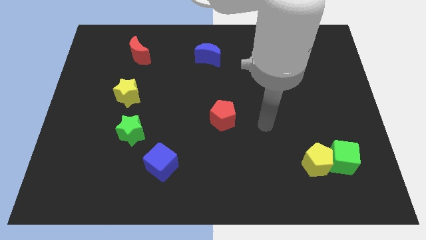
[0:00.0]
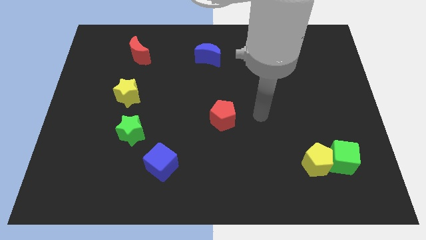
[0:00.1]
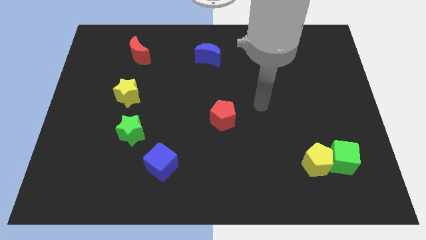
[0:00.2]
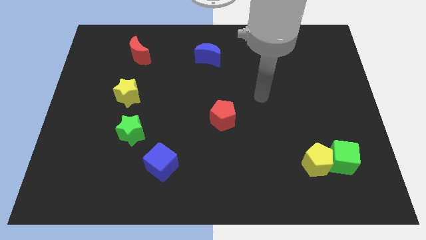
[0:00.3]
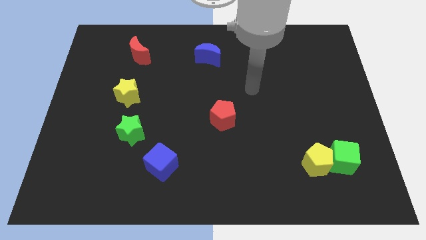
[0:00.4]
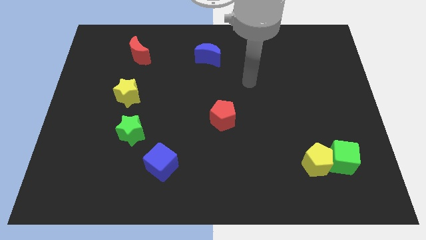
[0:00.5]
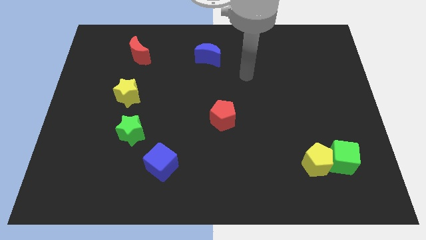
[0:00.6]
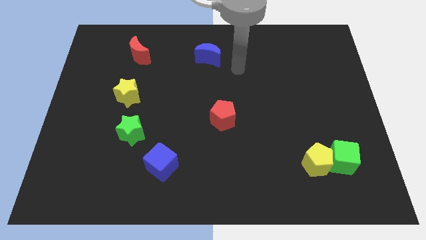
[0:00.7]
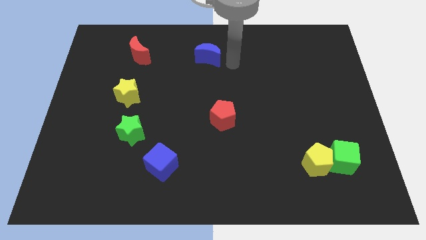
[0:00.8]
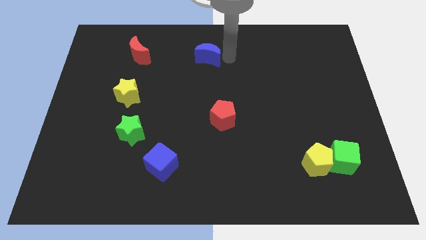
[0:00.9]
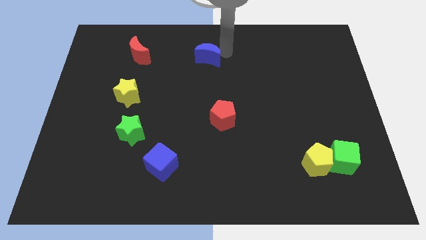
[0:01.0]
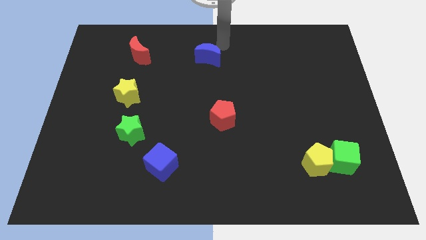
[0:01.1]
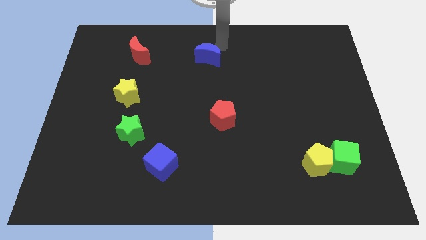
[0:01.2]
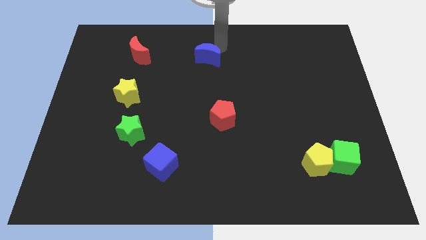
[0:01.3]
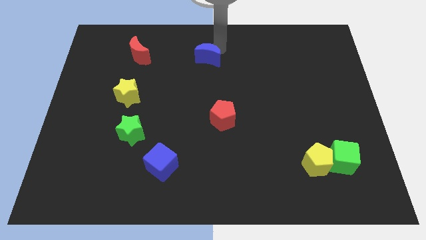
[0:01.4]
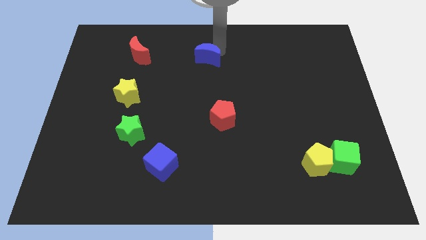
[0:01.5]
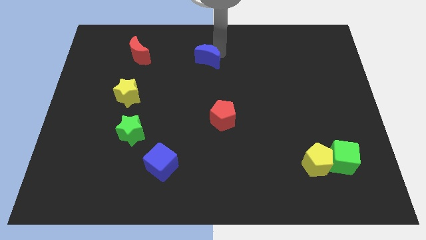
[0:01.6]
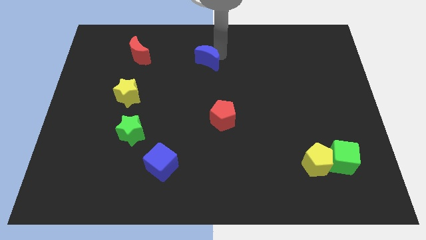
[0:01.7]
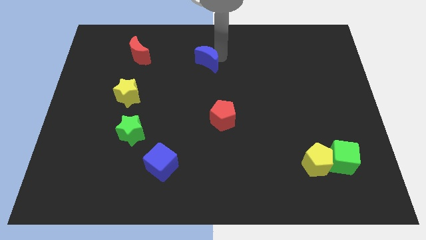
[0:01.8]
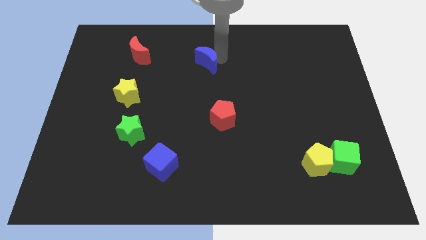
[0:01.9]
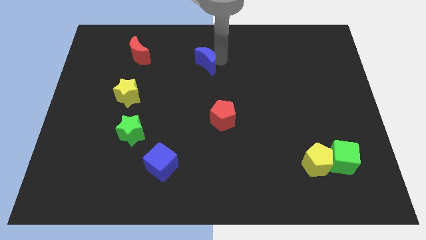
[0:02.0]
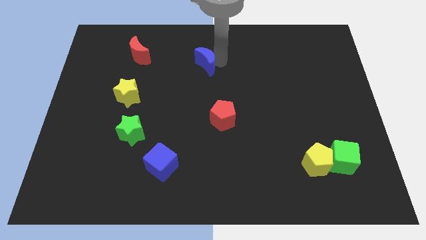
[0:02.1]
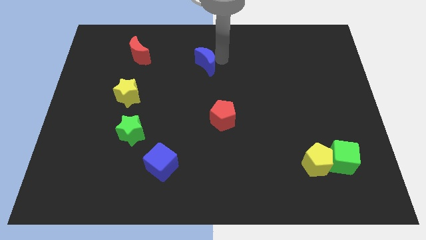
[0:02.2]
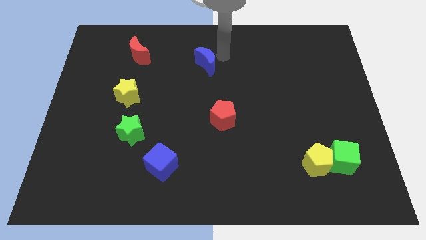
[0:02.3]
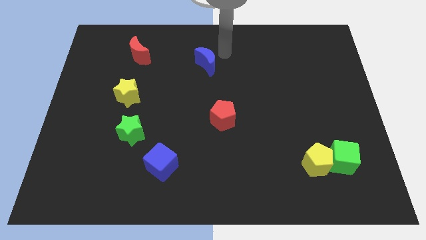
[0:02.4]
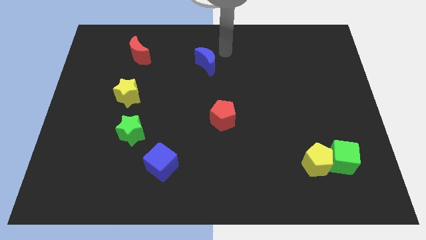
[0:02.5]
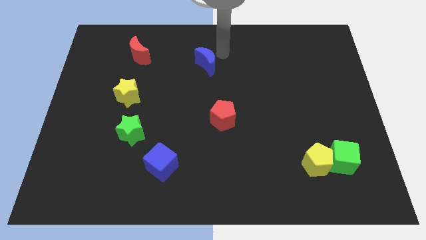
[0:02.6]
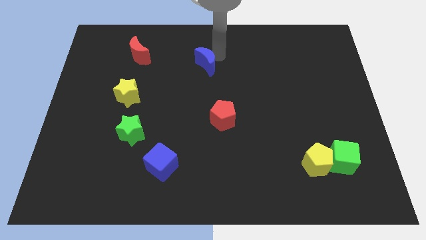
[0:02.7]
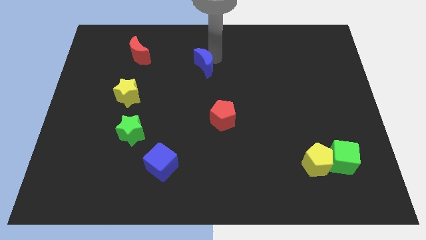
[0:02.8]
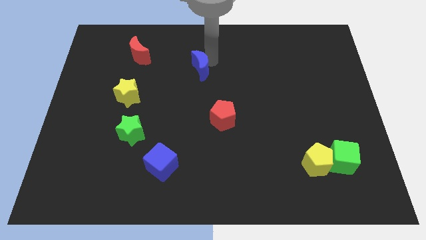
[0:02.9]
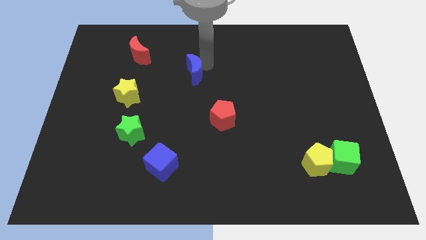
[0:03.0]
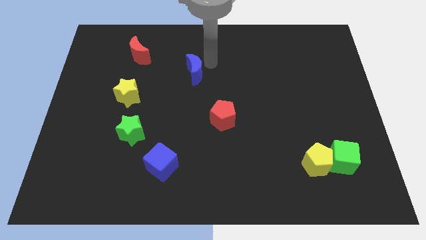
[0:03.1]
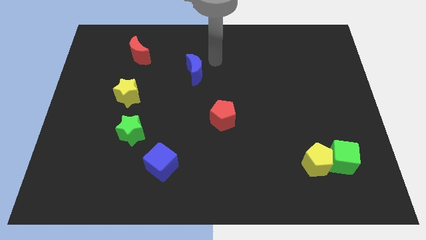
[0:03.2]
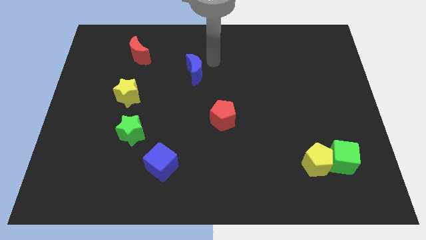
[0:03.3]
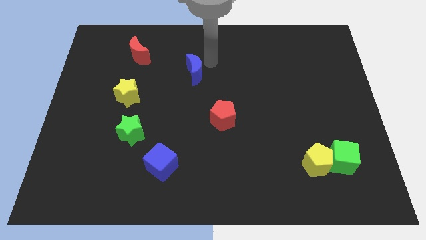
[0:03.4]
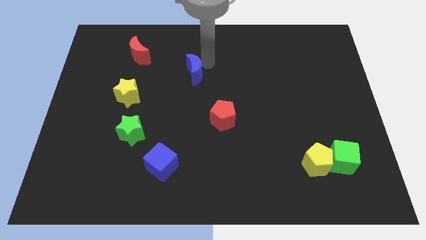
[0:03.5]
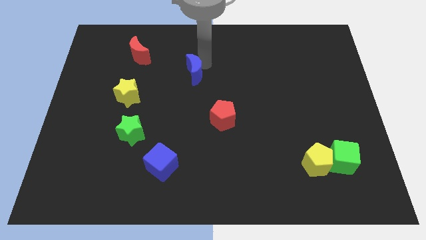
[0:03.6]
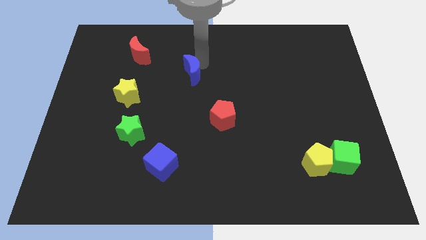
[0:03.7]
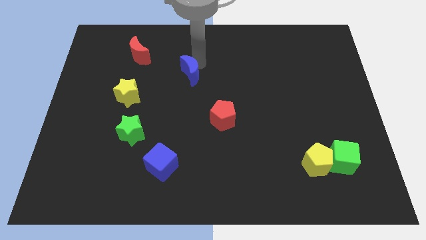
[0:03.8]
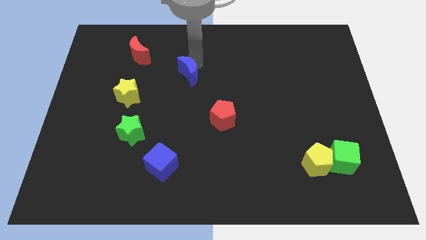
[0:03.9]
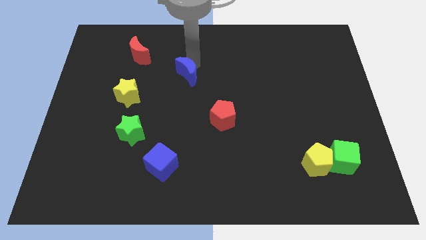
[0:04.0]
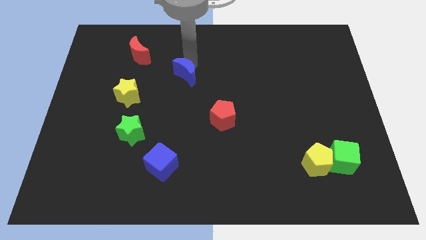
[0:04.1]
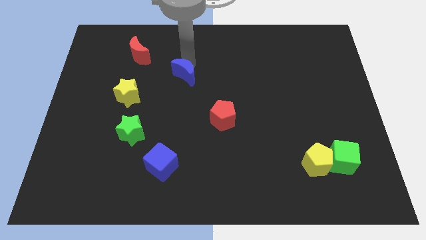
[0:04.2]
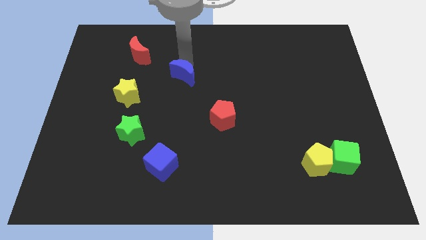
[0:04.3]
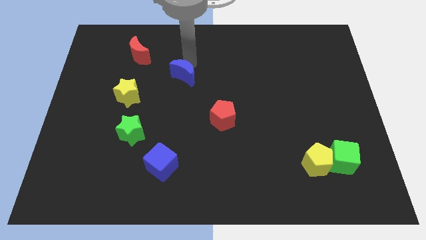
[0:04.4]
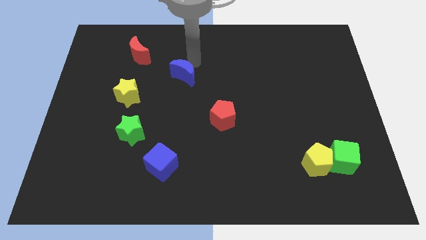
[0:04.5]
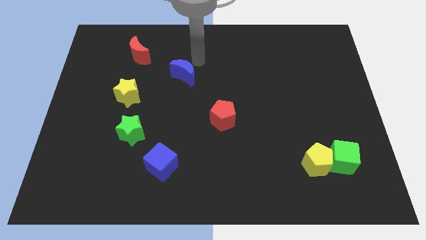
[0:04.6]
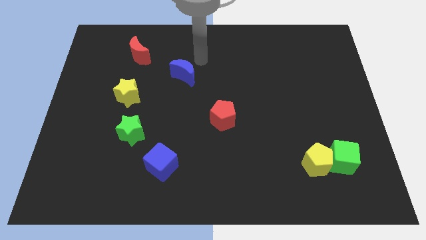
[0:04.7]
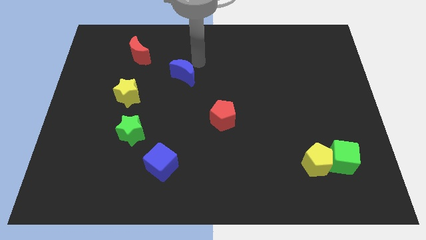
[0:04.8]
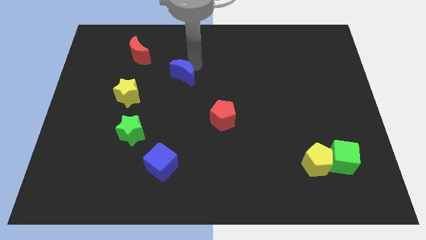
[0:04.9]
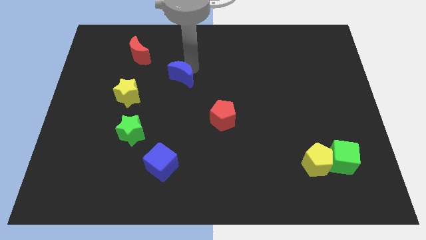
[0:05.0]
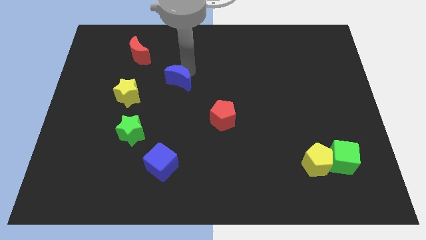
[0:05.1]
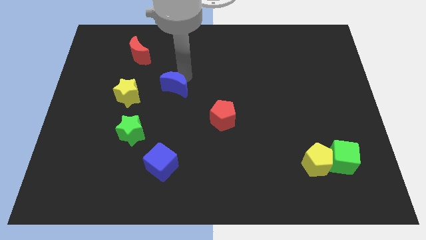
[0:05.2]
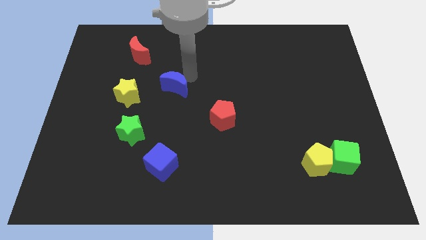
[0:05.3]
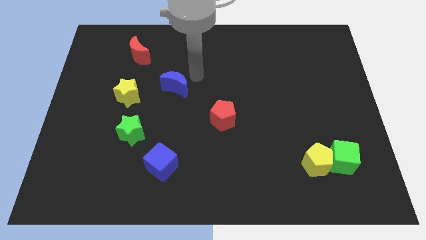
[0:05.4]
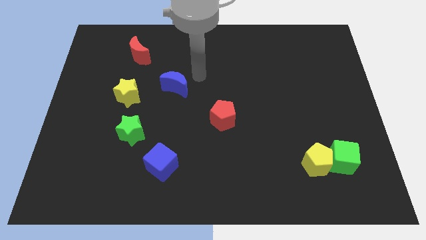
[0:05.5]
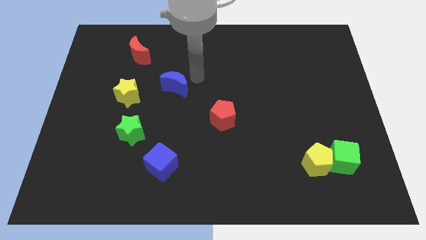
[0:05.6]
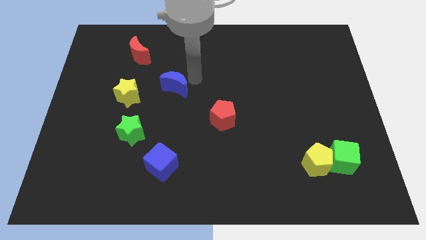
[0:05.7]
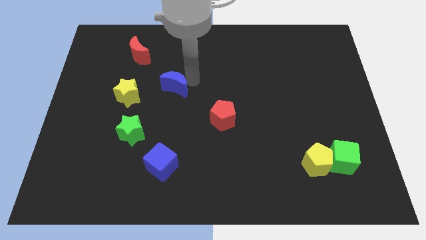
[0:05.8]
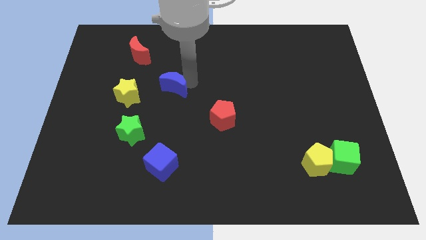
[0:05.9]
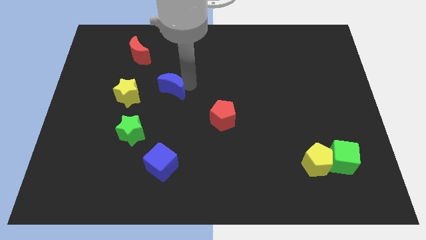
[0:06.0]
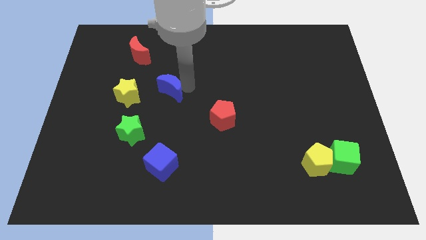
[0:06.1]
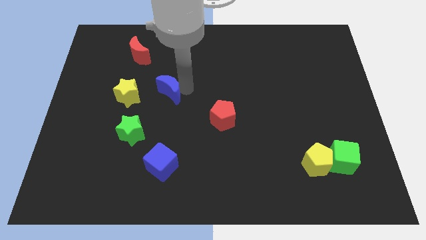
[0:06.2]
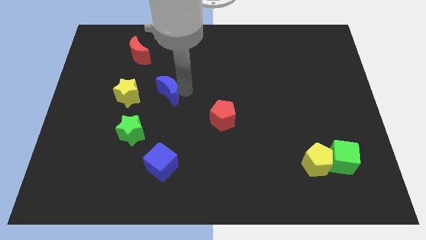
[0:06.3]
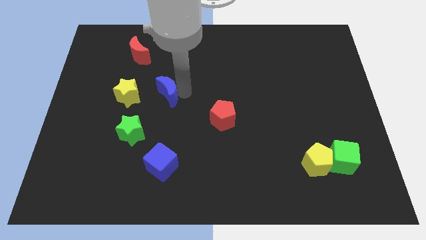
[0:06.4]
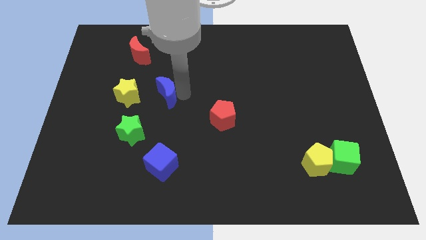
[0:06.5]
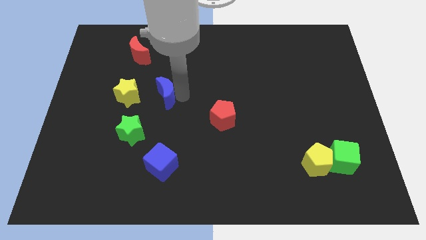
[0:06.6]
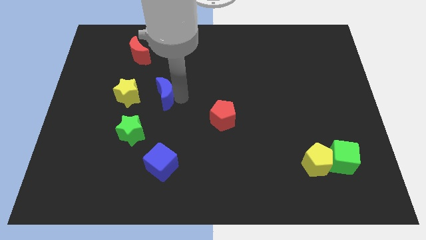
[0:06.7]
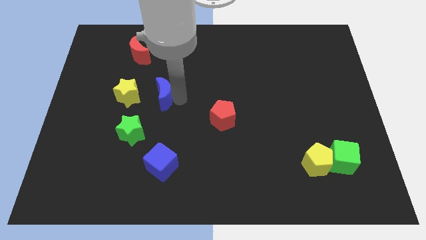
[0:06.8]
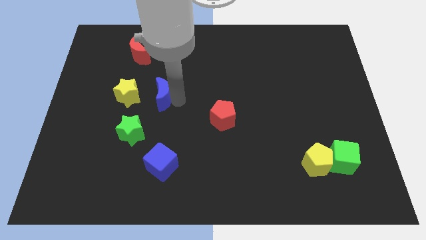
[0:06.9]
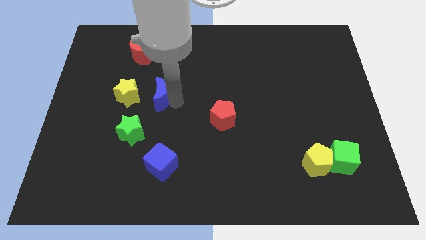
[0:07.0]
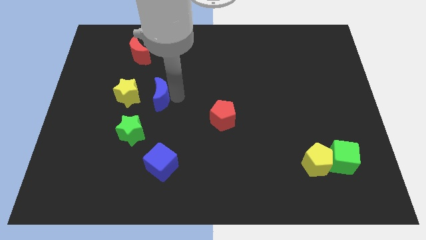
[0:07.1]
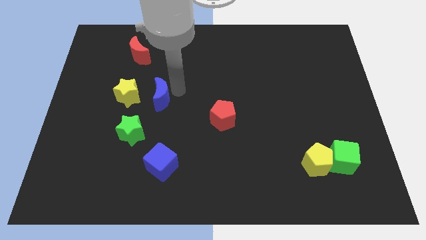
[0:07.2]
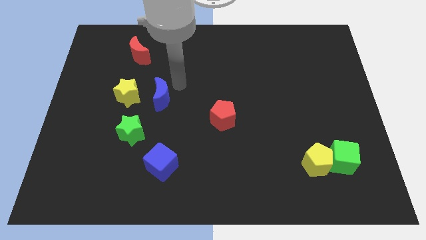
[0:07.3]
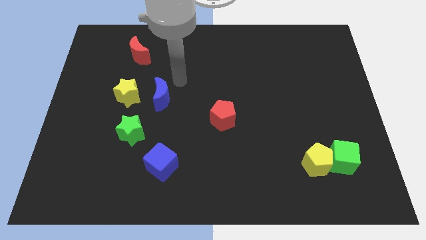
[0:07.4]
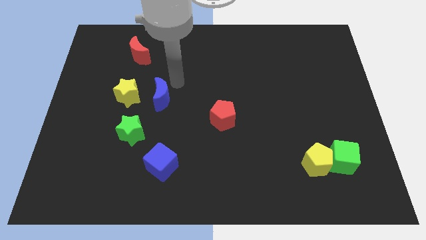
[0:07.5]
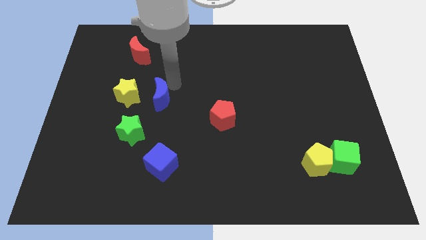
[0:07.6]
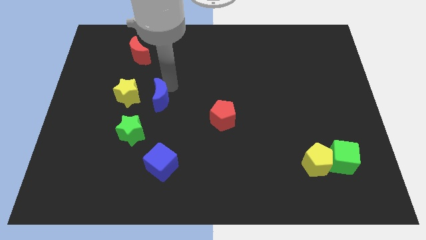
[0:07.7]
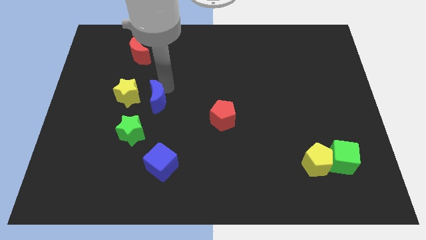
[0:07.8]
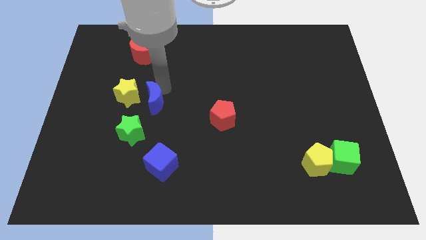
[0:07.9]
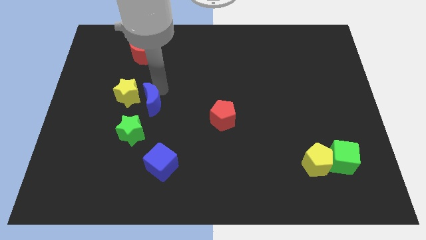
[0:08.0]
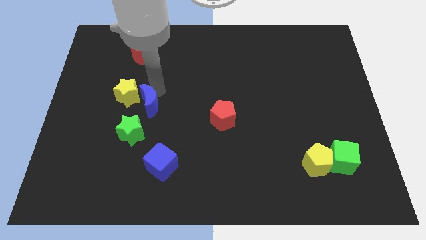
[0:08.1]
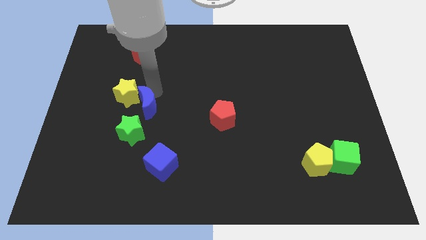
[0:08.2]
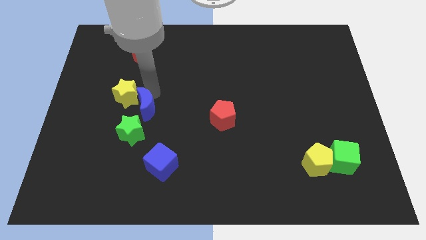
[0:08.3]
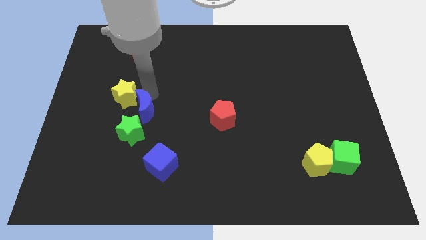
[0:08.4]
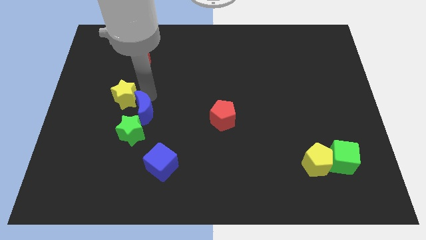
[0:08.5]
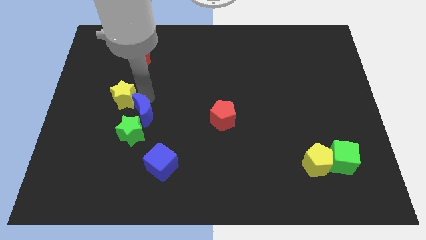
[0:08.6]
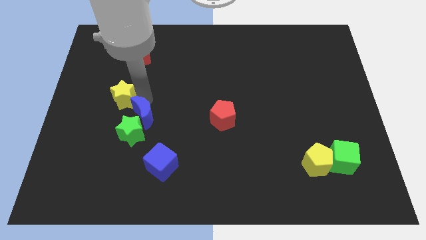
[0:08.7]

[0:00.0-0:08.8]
put the blue moon next to the green star
